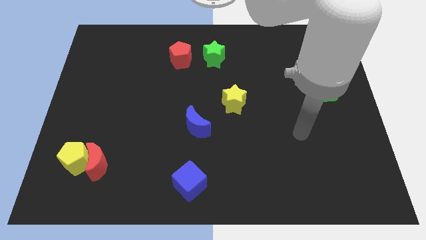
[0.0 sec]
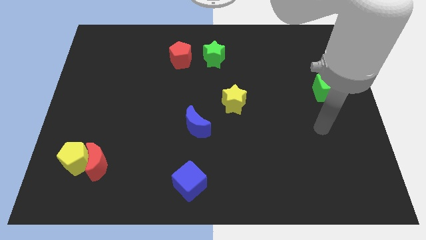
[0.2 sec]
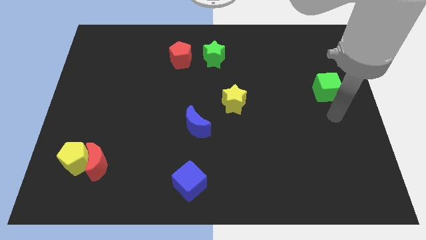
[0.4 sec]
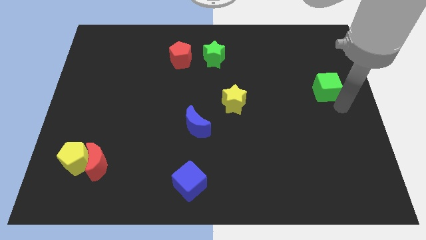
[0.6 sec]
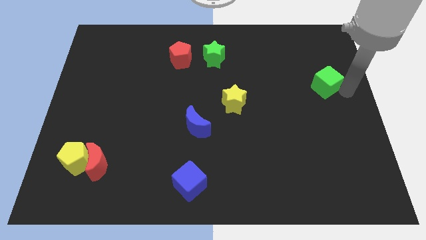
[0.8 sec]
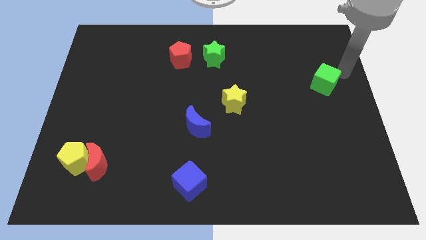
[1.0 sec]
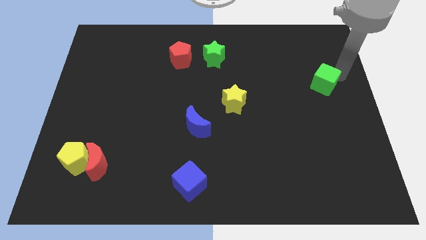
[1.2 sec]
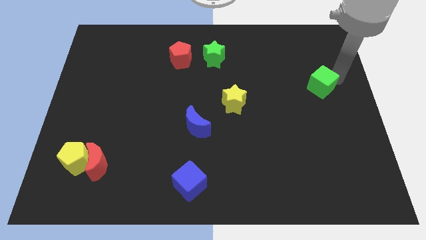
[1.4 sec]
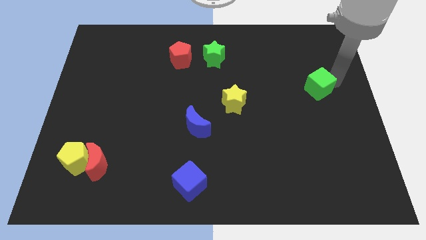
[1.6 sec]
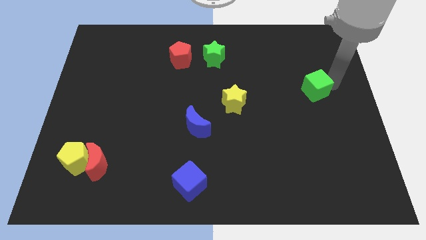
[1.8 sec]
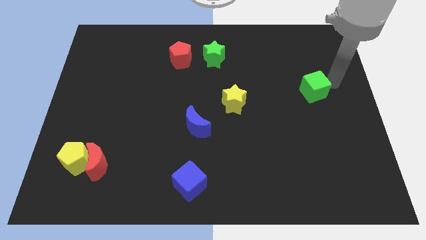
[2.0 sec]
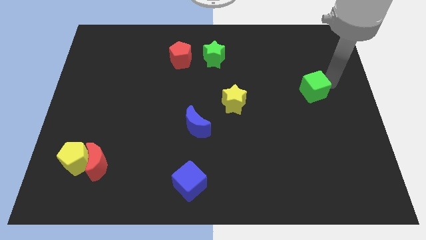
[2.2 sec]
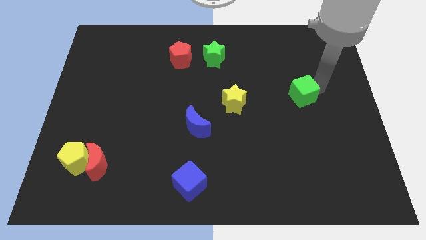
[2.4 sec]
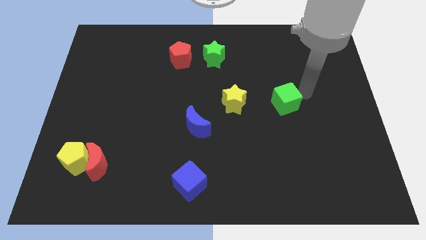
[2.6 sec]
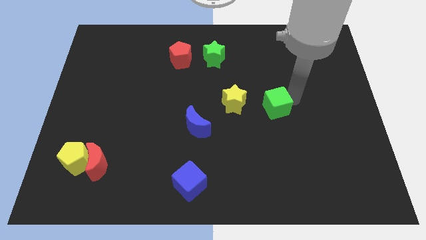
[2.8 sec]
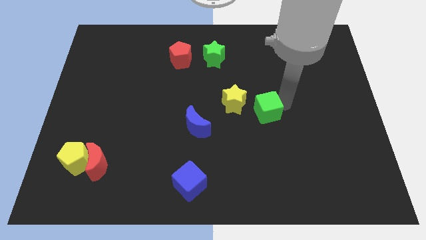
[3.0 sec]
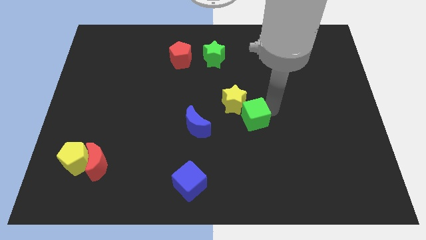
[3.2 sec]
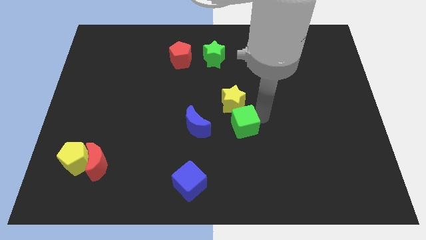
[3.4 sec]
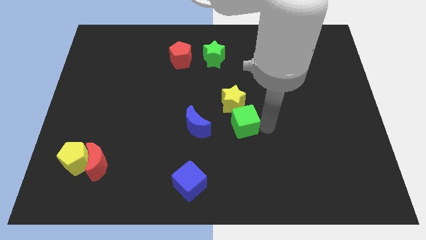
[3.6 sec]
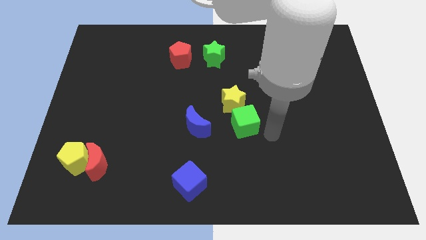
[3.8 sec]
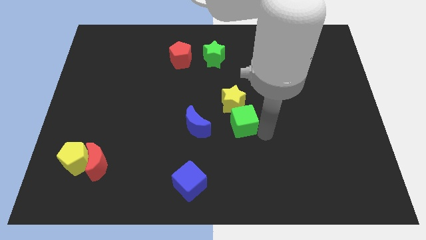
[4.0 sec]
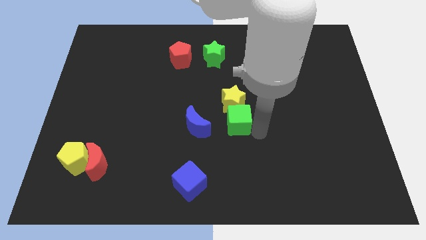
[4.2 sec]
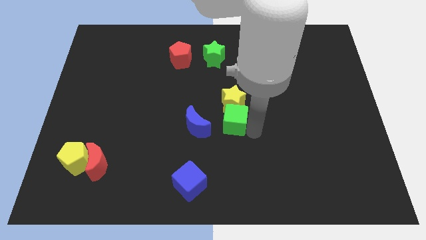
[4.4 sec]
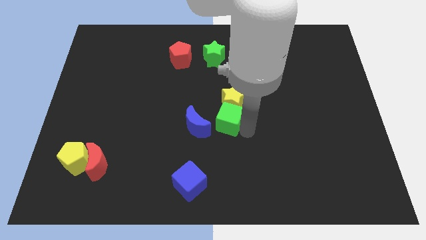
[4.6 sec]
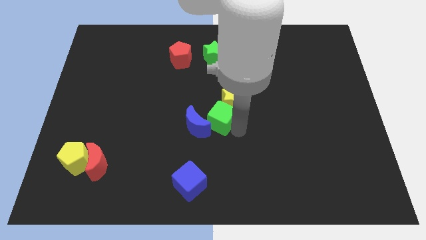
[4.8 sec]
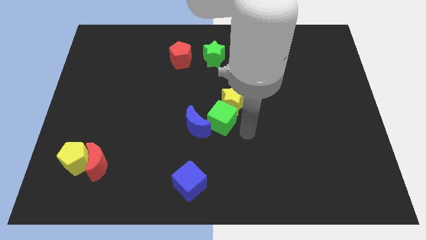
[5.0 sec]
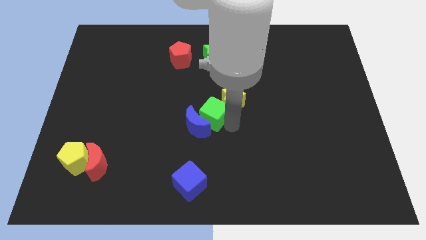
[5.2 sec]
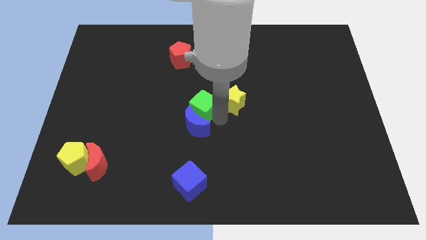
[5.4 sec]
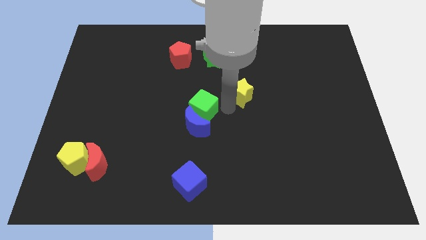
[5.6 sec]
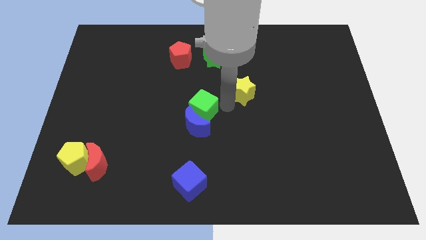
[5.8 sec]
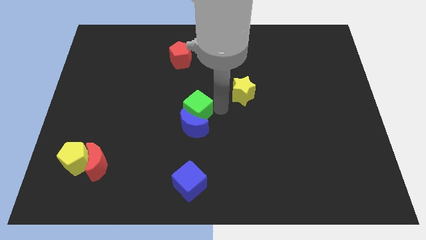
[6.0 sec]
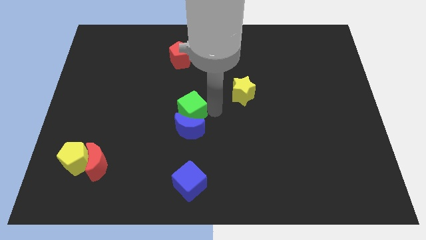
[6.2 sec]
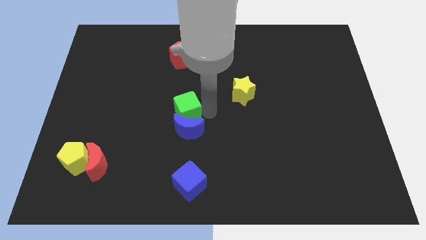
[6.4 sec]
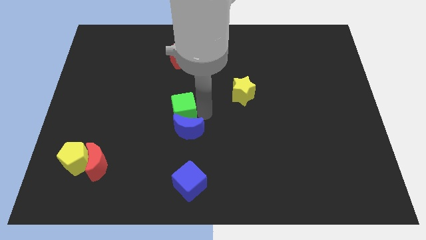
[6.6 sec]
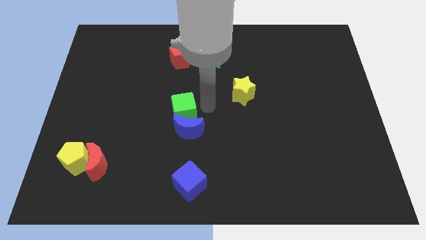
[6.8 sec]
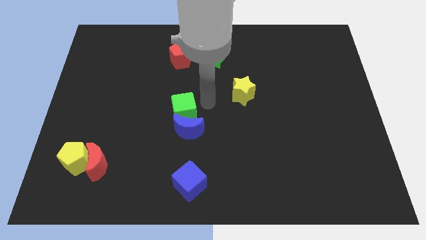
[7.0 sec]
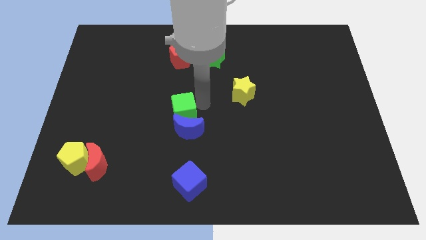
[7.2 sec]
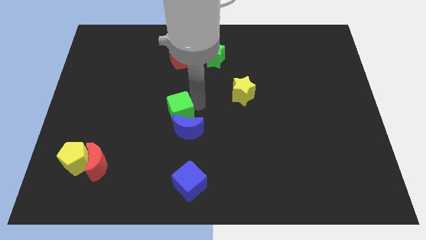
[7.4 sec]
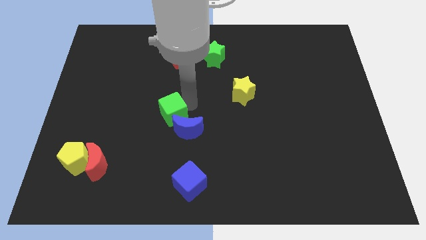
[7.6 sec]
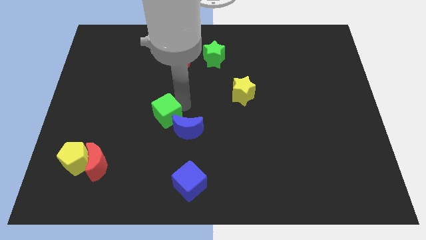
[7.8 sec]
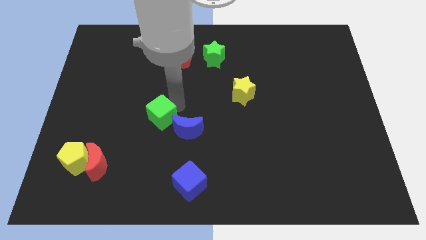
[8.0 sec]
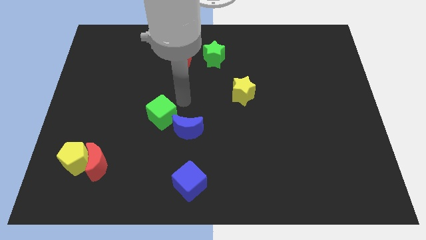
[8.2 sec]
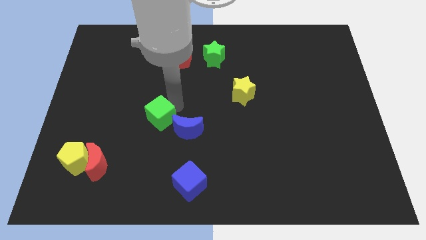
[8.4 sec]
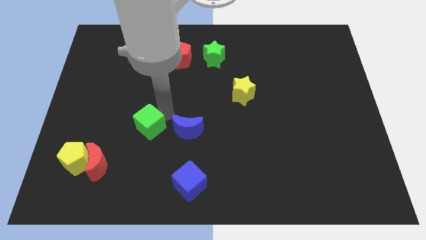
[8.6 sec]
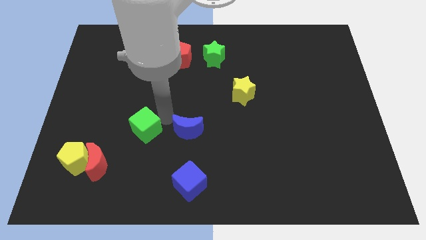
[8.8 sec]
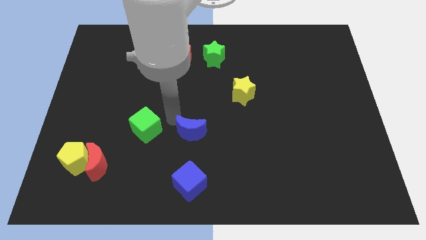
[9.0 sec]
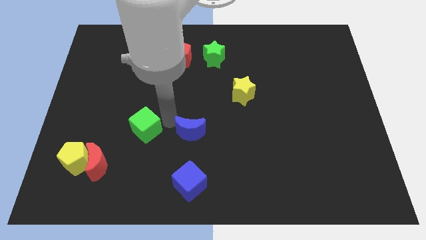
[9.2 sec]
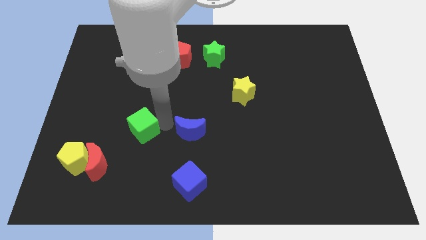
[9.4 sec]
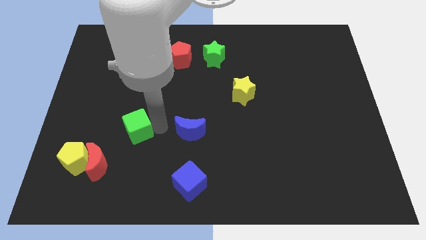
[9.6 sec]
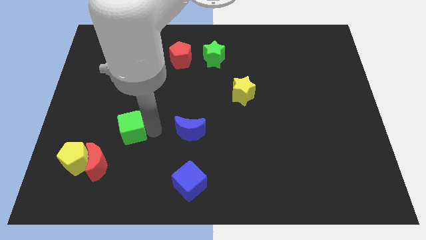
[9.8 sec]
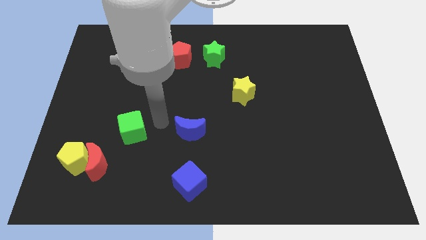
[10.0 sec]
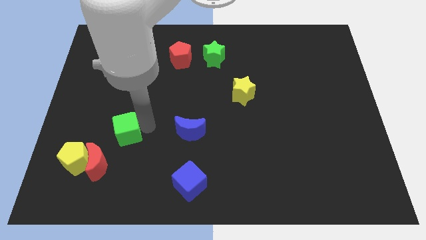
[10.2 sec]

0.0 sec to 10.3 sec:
slide the green cube to the top right side of the yellow pentagon

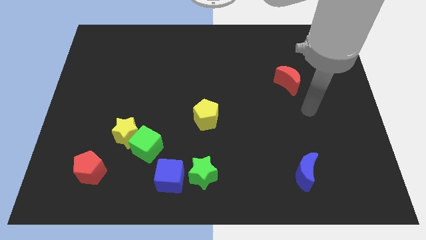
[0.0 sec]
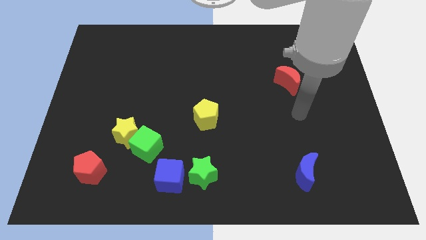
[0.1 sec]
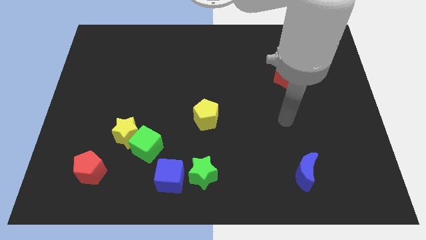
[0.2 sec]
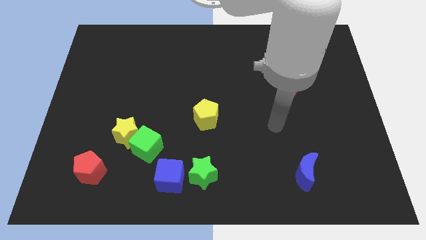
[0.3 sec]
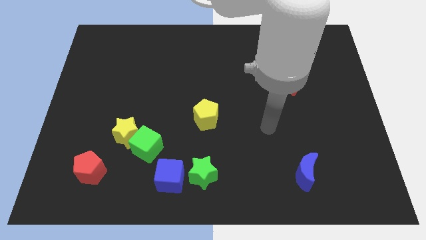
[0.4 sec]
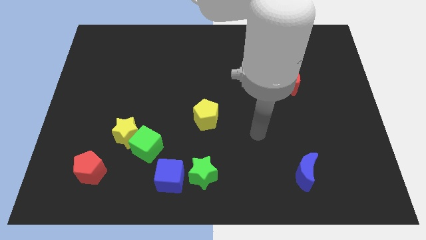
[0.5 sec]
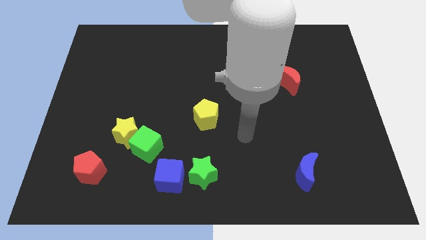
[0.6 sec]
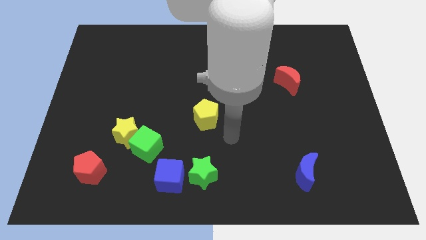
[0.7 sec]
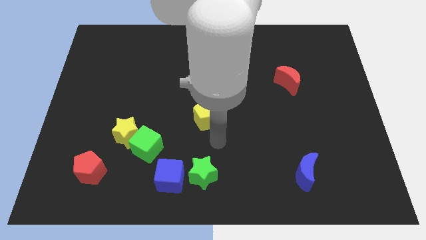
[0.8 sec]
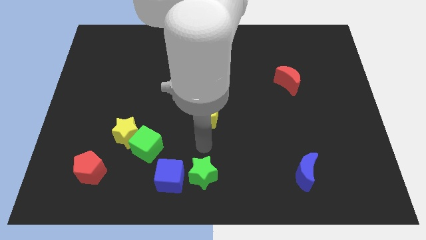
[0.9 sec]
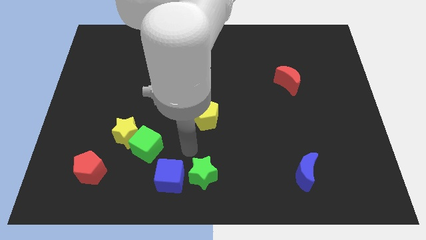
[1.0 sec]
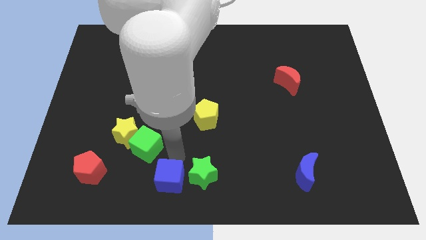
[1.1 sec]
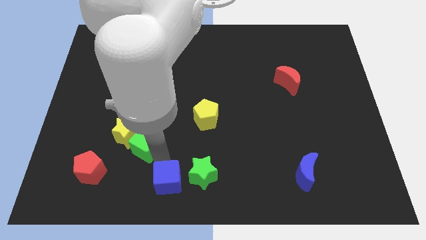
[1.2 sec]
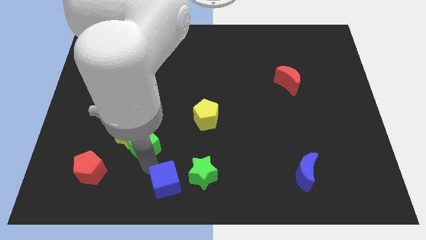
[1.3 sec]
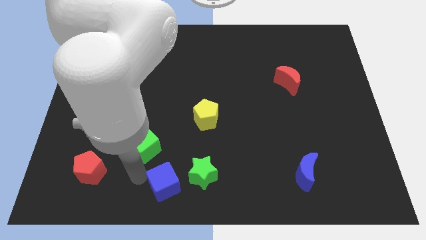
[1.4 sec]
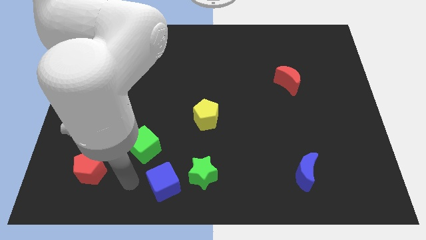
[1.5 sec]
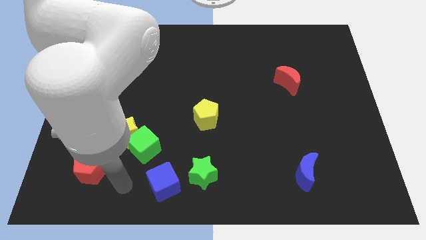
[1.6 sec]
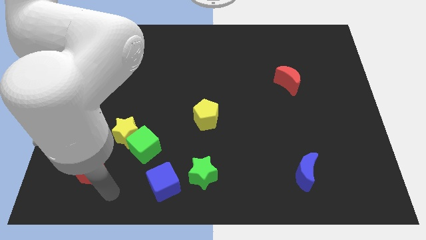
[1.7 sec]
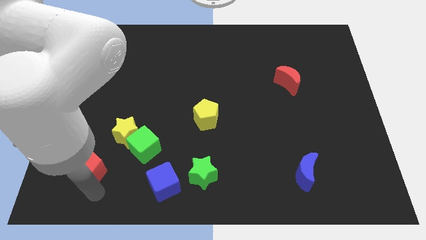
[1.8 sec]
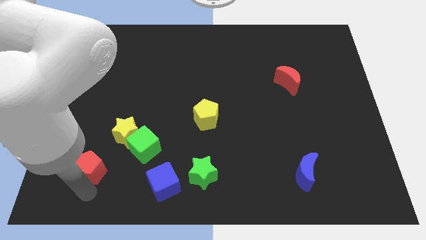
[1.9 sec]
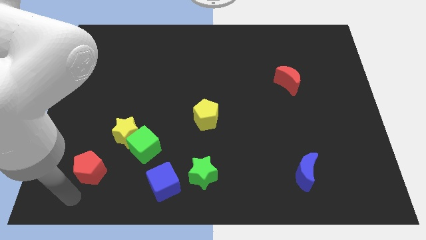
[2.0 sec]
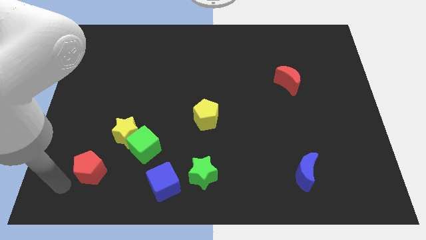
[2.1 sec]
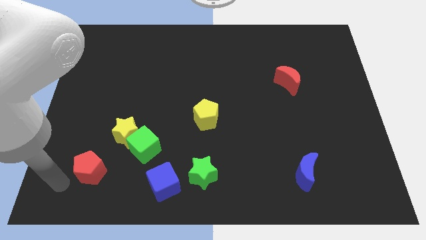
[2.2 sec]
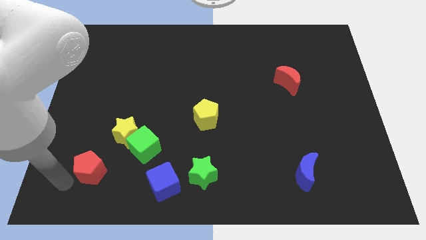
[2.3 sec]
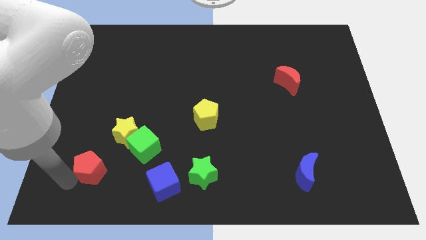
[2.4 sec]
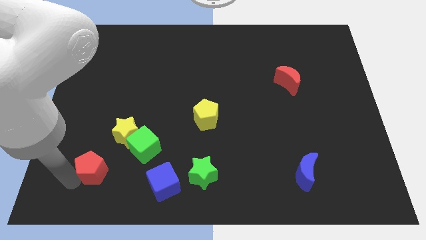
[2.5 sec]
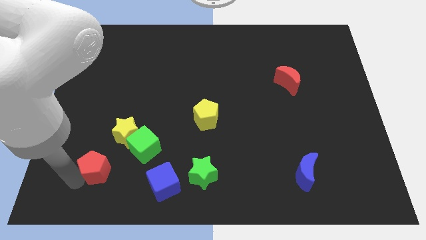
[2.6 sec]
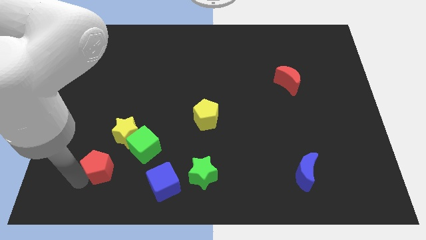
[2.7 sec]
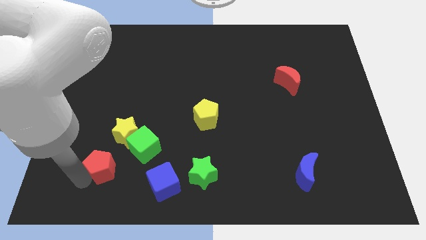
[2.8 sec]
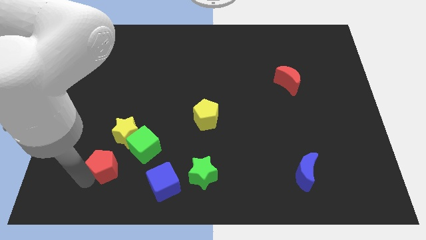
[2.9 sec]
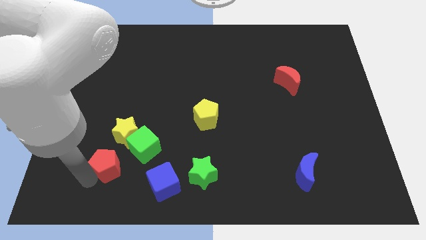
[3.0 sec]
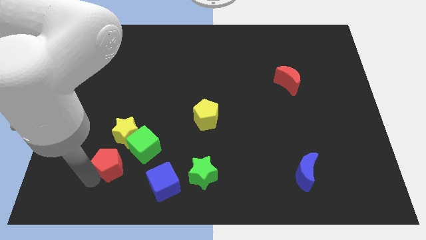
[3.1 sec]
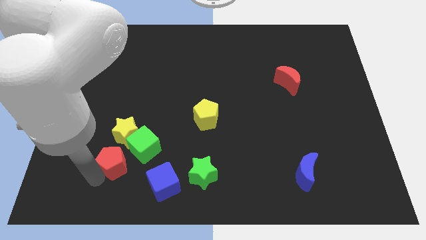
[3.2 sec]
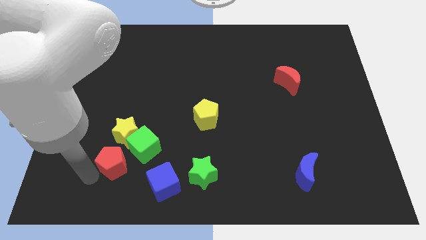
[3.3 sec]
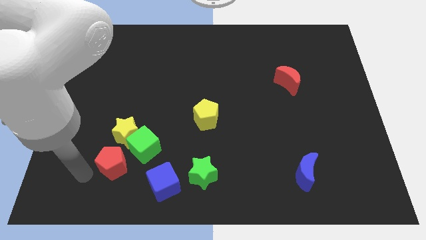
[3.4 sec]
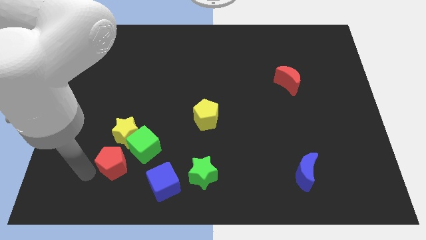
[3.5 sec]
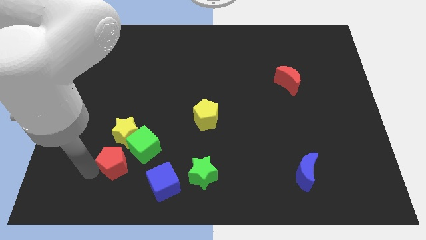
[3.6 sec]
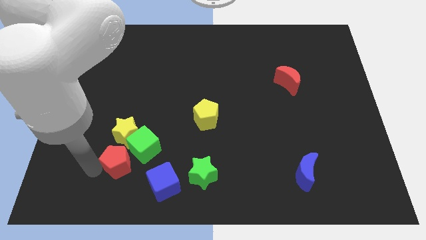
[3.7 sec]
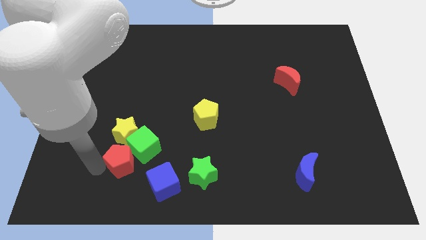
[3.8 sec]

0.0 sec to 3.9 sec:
push the red pentagon to the bottom right side of the yellow star
